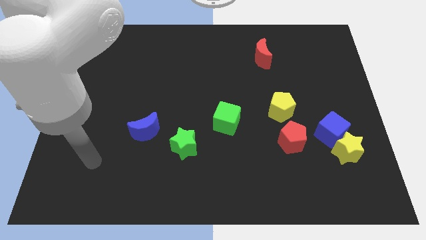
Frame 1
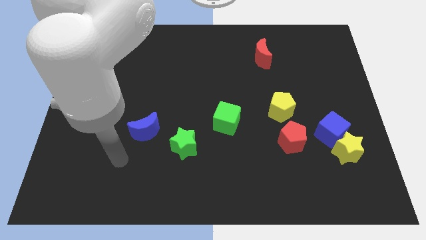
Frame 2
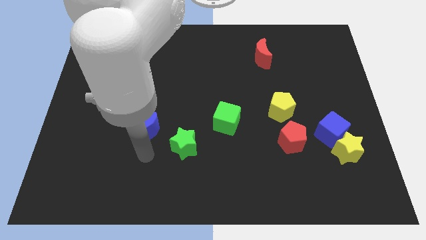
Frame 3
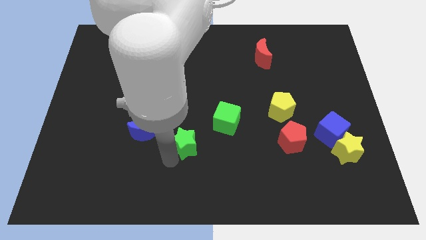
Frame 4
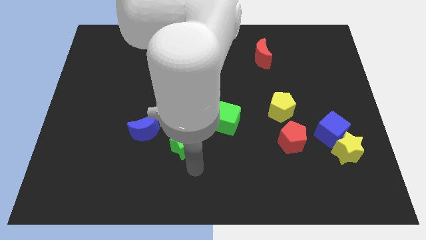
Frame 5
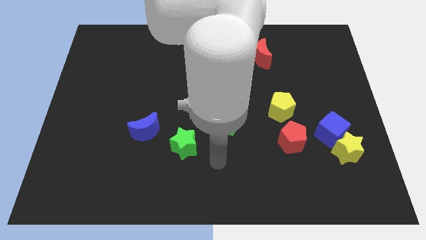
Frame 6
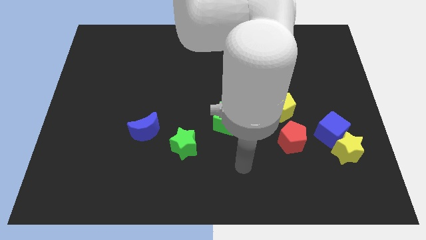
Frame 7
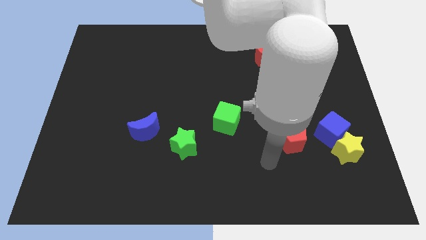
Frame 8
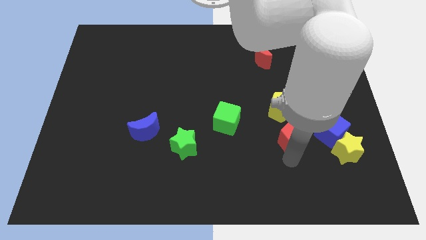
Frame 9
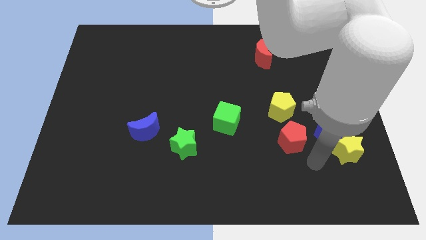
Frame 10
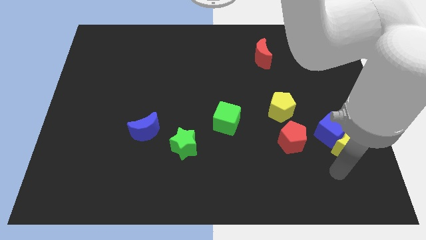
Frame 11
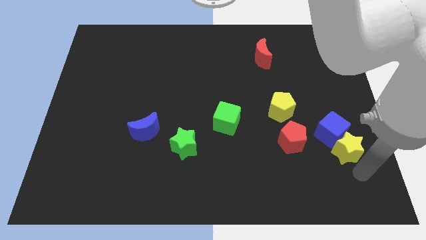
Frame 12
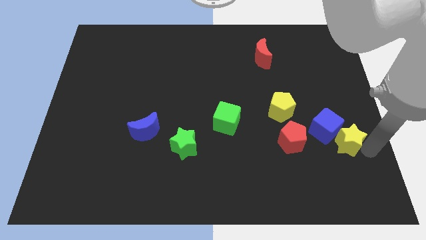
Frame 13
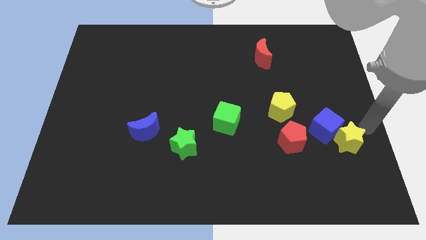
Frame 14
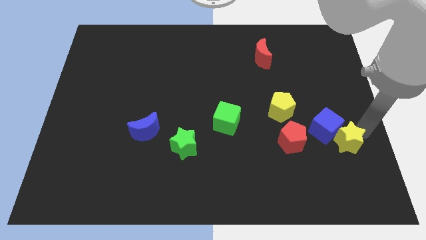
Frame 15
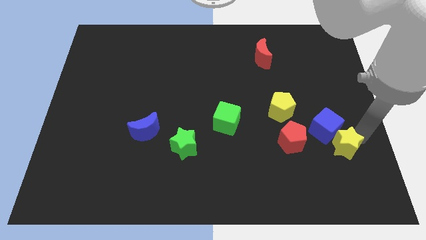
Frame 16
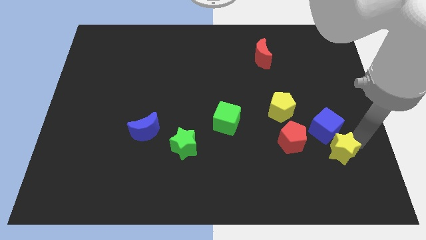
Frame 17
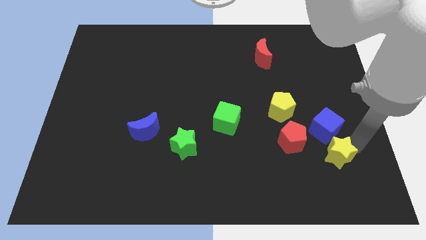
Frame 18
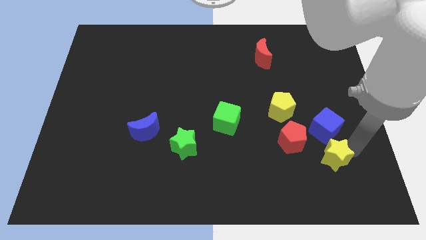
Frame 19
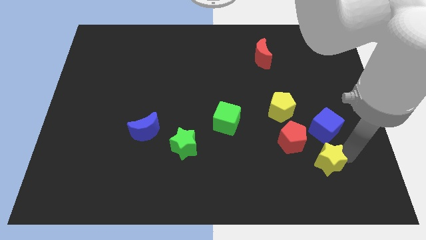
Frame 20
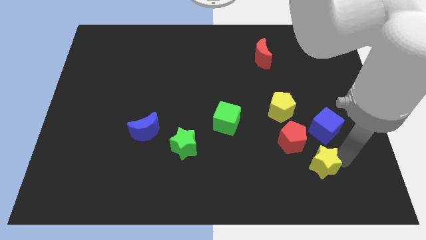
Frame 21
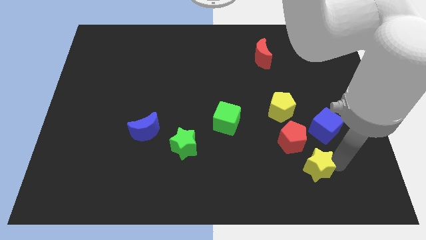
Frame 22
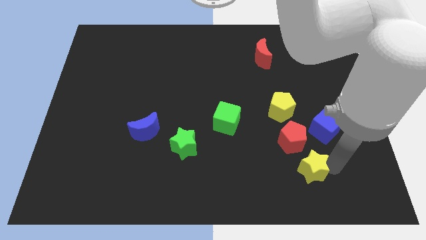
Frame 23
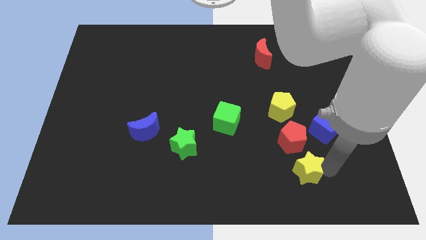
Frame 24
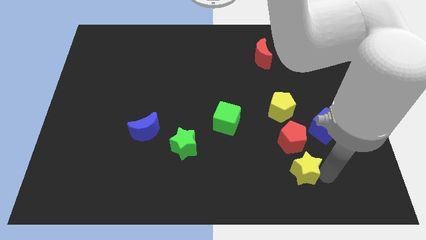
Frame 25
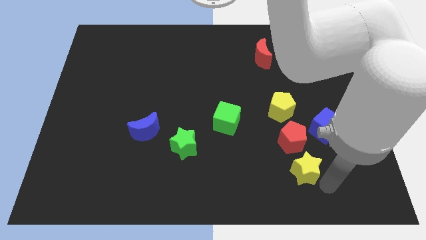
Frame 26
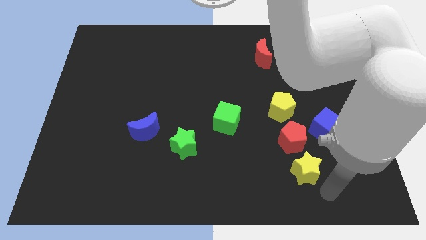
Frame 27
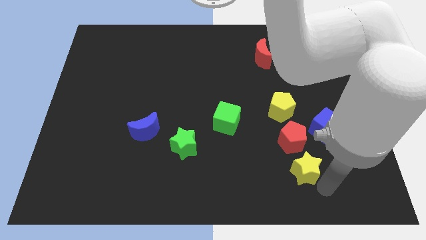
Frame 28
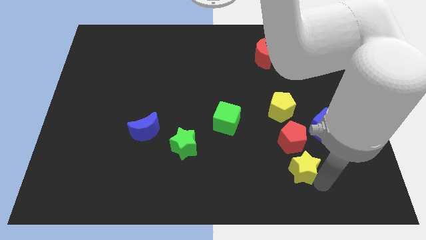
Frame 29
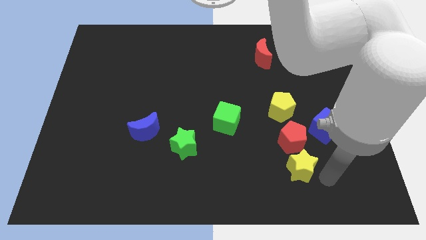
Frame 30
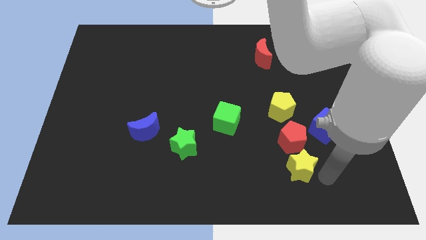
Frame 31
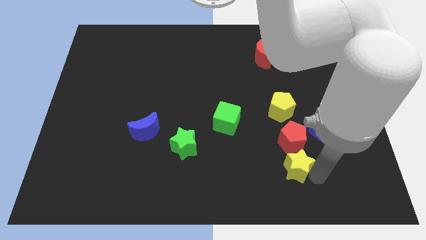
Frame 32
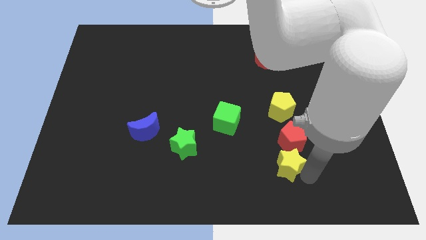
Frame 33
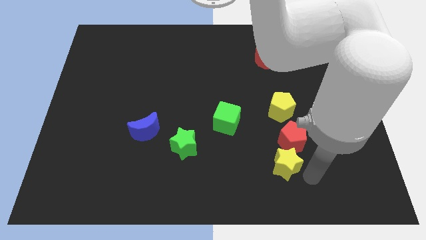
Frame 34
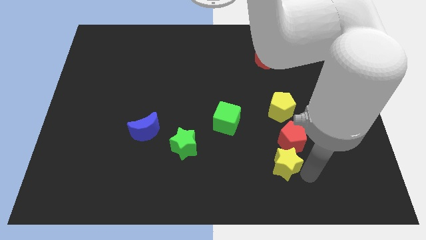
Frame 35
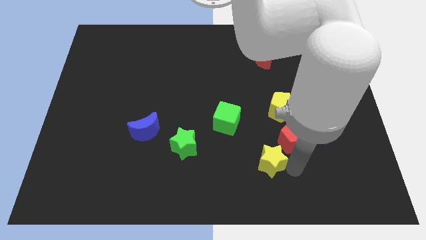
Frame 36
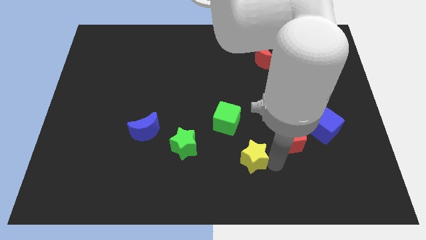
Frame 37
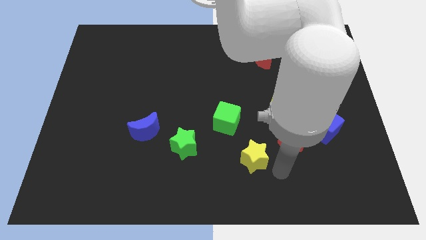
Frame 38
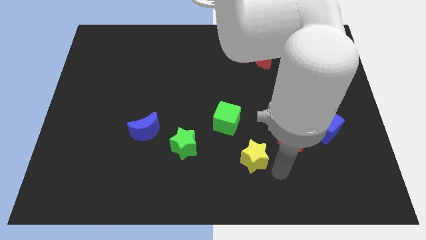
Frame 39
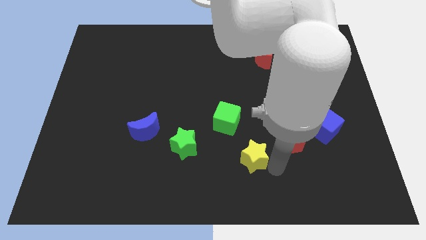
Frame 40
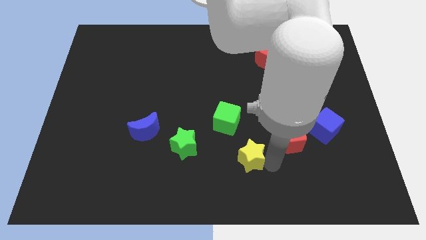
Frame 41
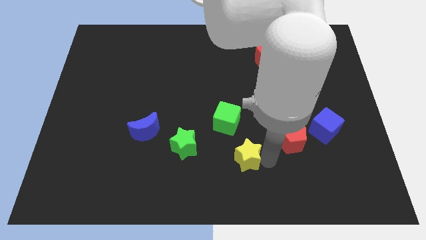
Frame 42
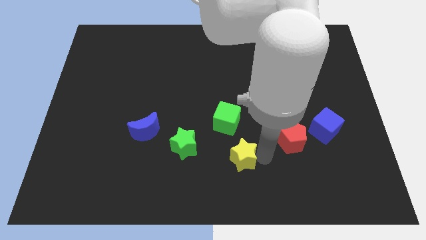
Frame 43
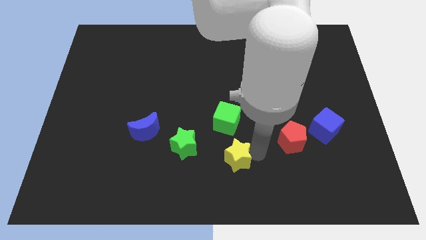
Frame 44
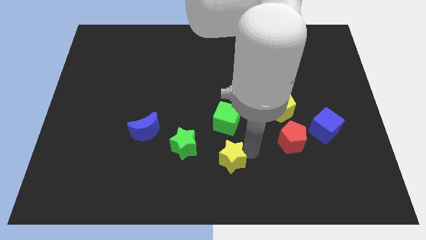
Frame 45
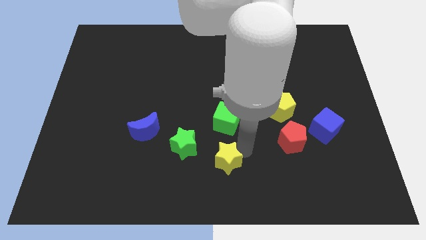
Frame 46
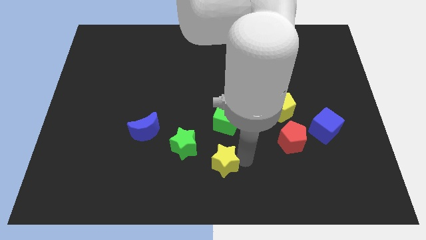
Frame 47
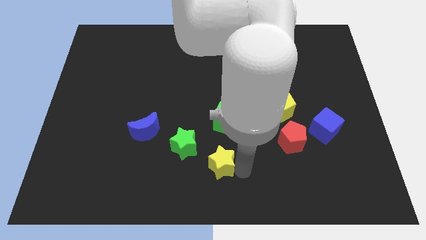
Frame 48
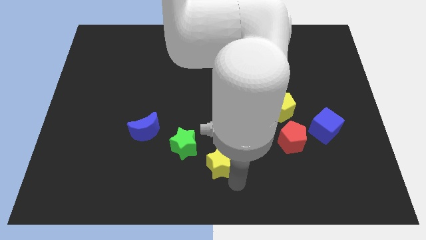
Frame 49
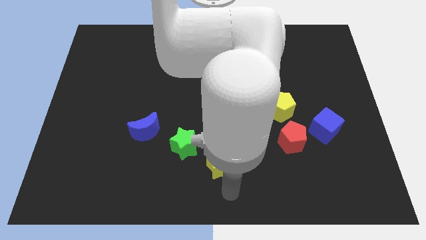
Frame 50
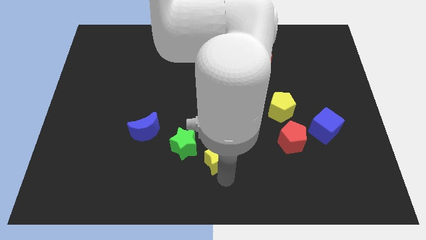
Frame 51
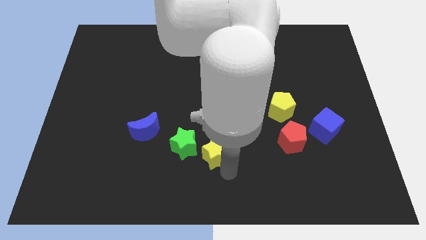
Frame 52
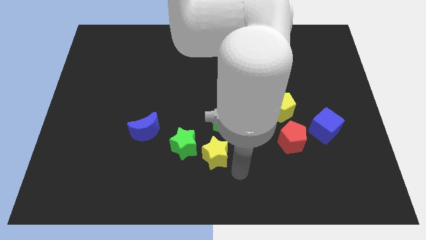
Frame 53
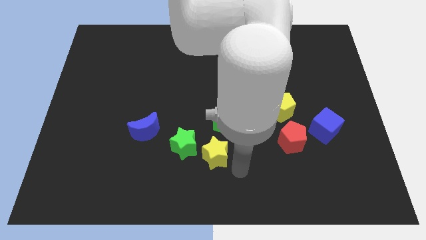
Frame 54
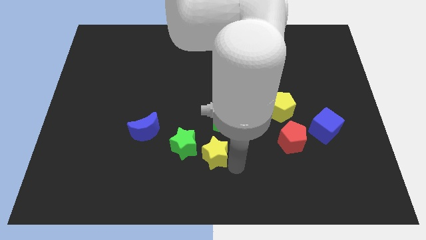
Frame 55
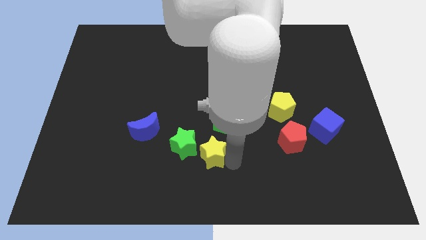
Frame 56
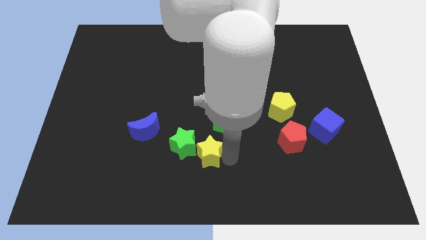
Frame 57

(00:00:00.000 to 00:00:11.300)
put the yellow star to the green star

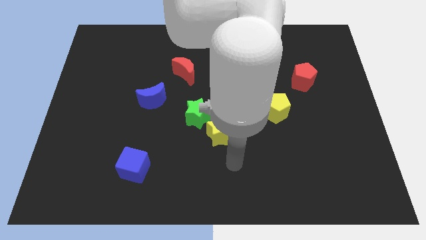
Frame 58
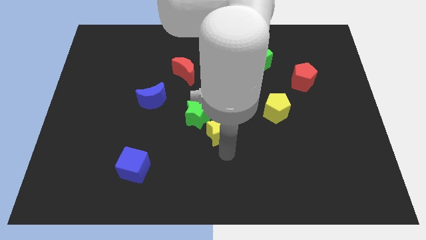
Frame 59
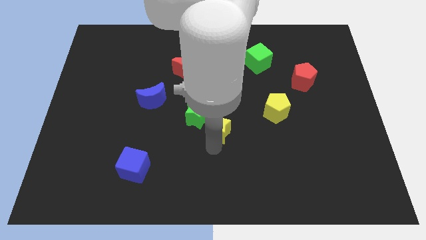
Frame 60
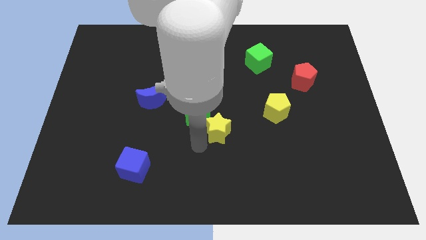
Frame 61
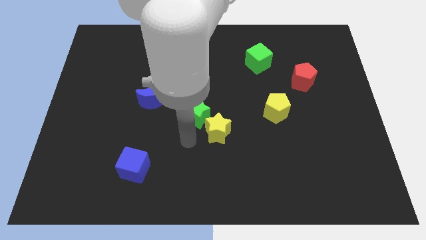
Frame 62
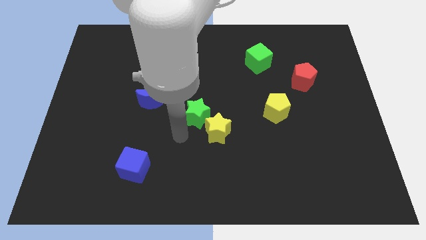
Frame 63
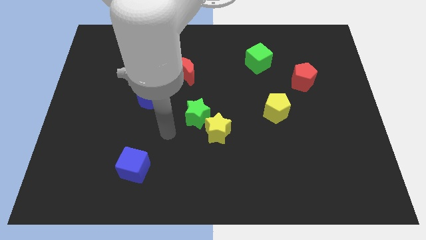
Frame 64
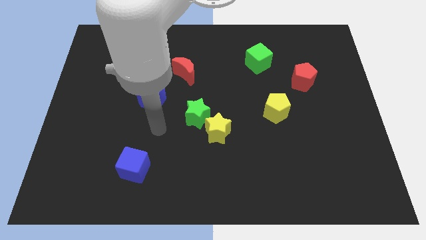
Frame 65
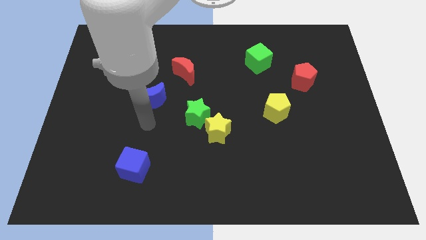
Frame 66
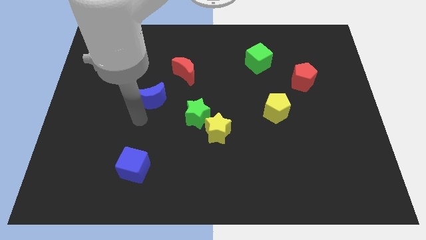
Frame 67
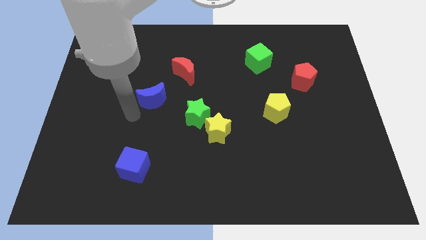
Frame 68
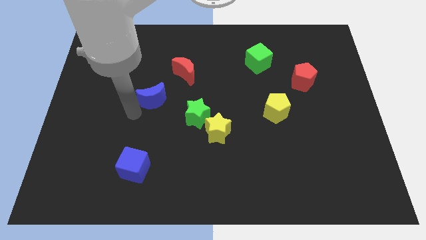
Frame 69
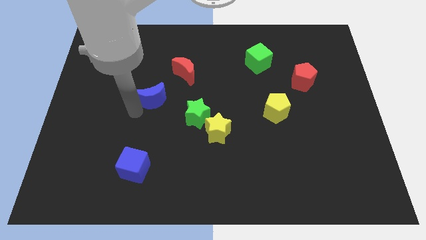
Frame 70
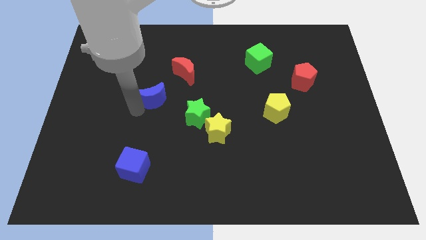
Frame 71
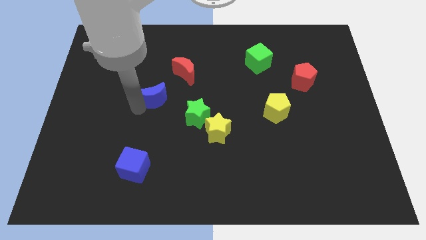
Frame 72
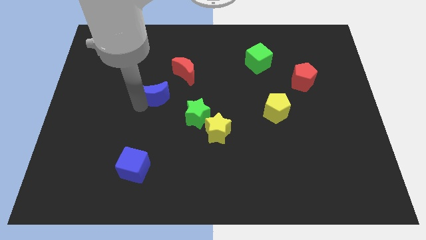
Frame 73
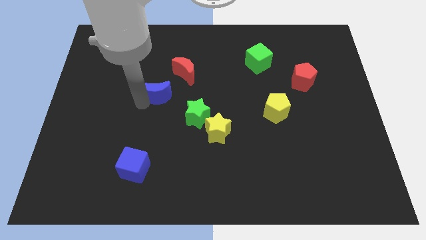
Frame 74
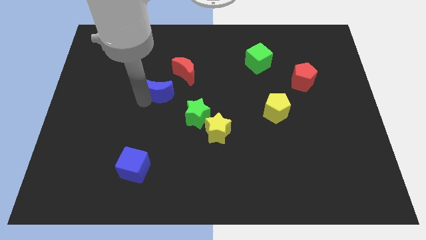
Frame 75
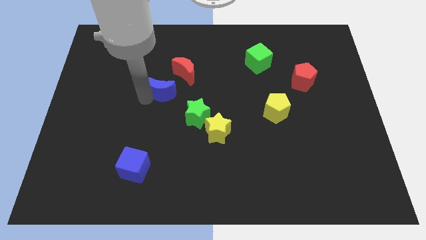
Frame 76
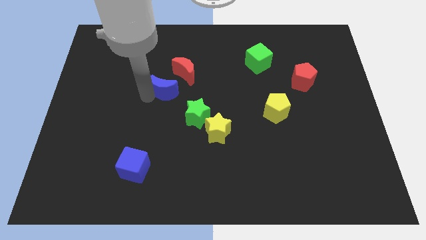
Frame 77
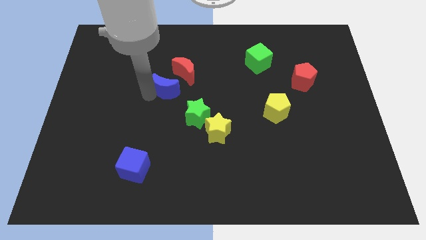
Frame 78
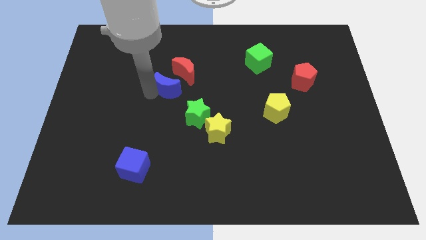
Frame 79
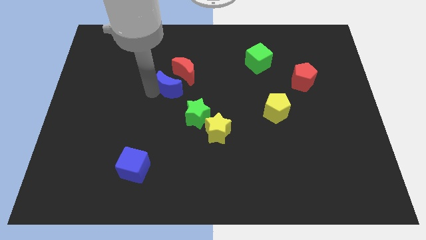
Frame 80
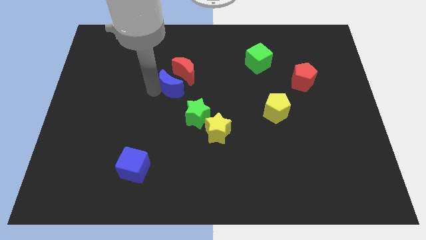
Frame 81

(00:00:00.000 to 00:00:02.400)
put the blue moon next to the red moon
